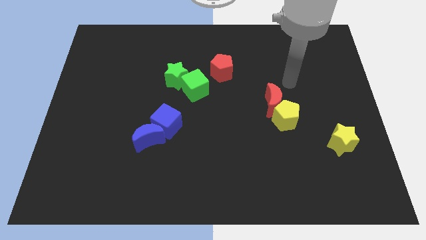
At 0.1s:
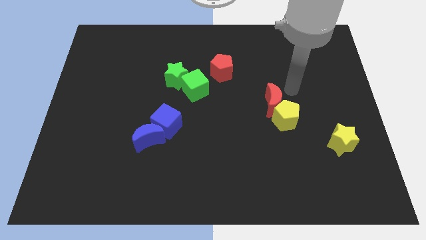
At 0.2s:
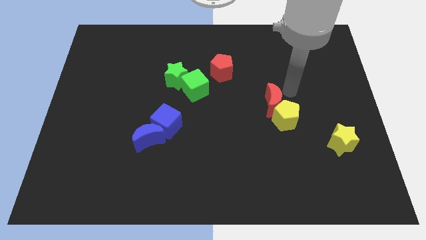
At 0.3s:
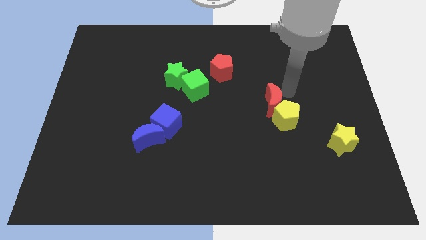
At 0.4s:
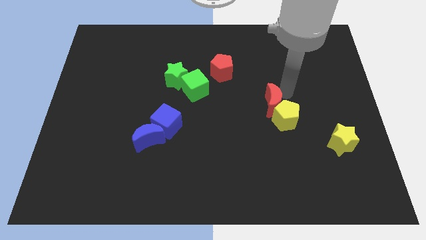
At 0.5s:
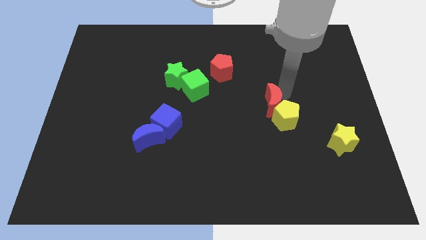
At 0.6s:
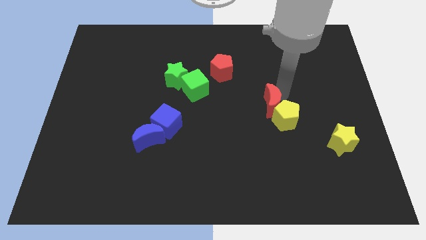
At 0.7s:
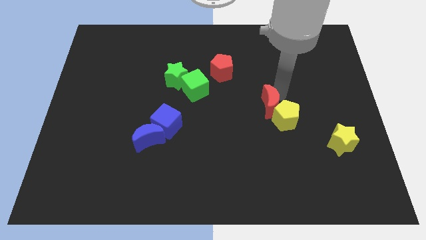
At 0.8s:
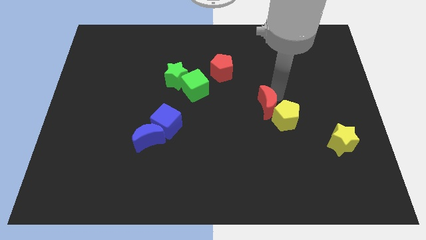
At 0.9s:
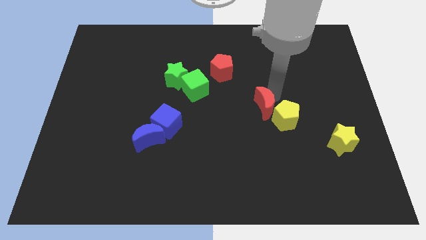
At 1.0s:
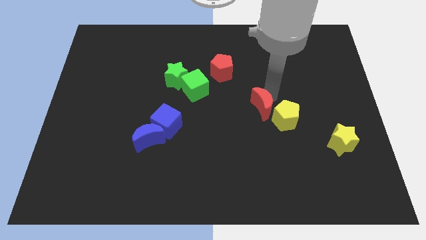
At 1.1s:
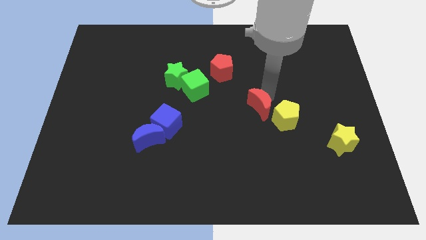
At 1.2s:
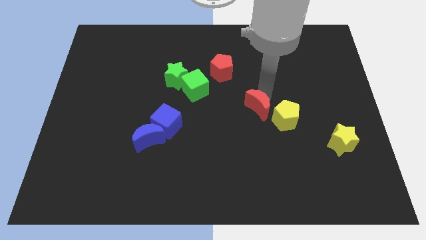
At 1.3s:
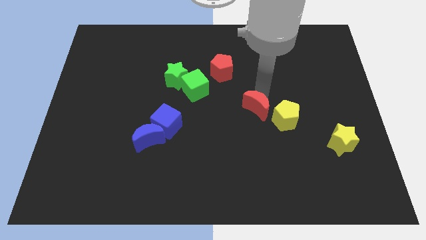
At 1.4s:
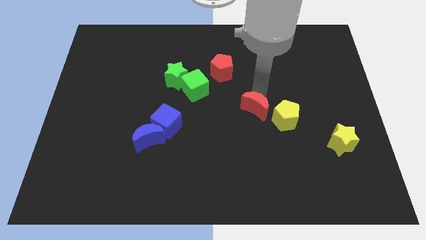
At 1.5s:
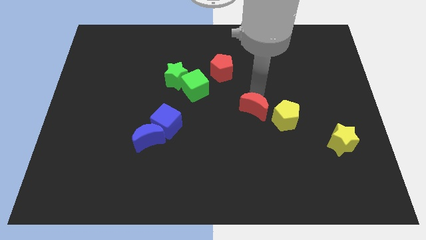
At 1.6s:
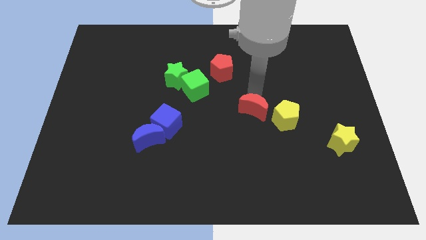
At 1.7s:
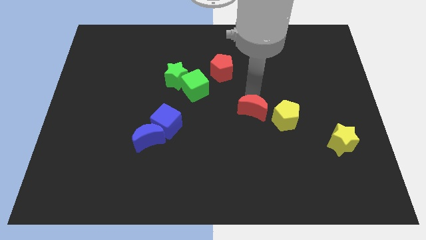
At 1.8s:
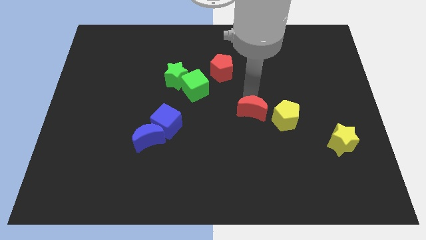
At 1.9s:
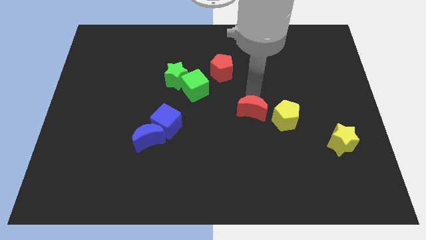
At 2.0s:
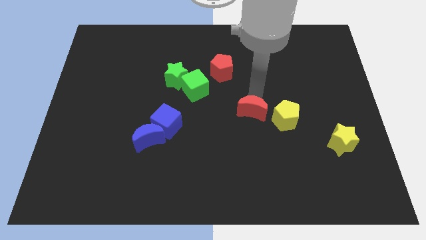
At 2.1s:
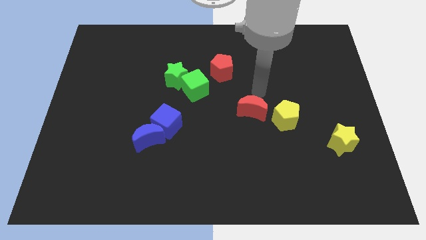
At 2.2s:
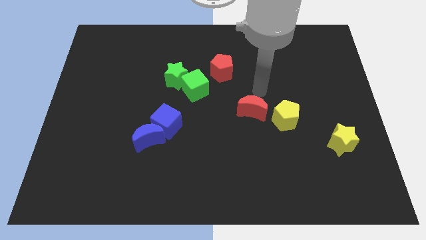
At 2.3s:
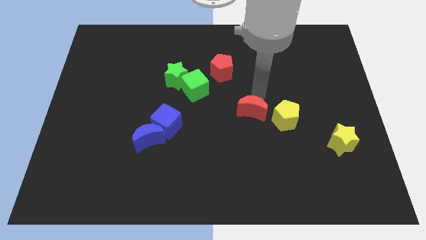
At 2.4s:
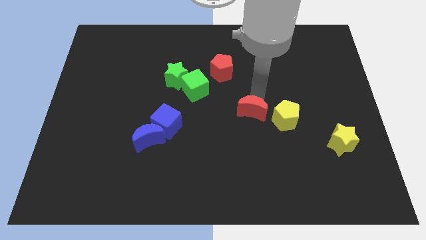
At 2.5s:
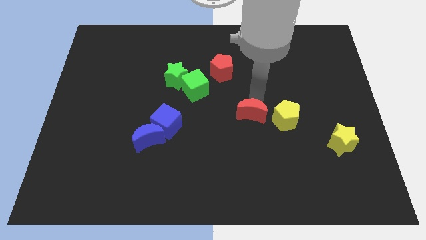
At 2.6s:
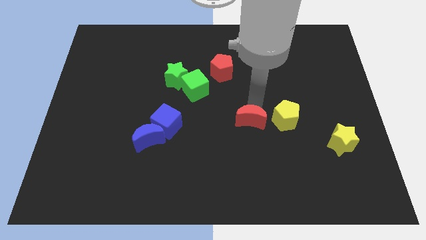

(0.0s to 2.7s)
slightly slide the red moon downwards and left

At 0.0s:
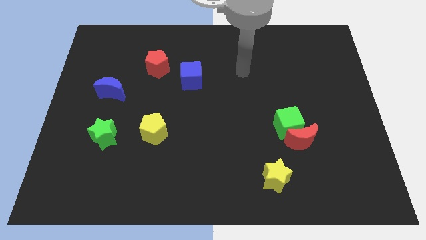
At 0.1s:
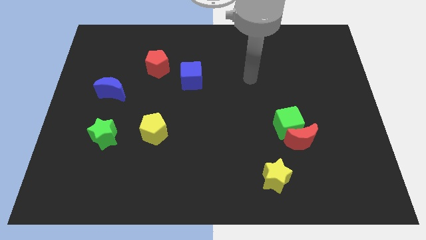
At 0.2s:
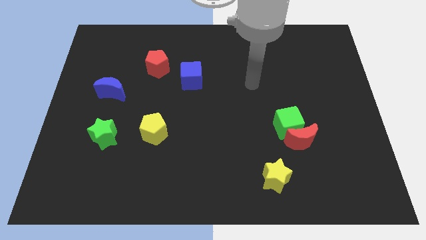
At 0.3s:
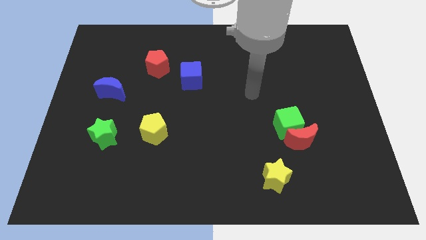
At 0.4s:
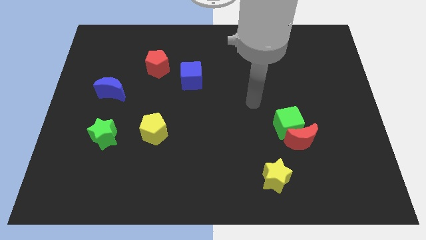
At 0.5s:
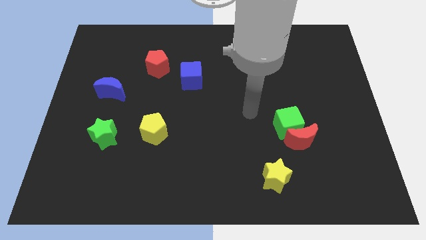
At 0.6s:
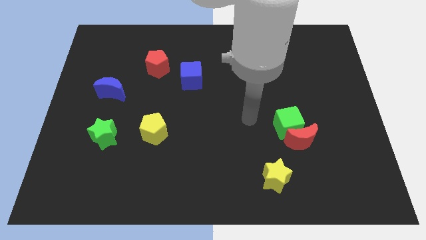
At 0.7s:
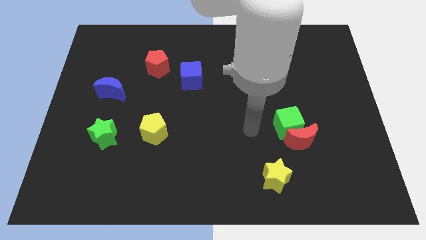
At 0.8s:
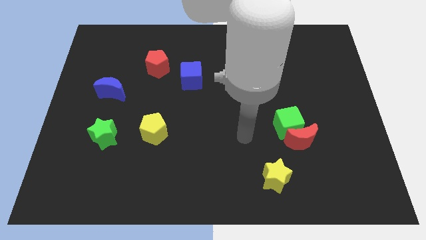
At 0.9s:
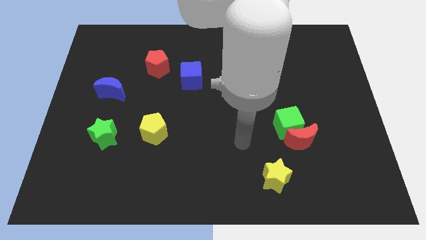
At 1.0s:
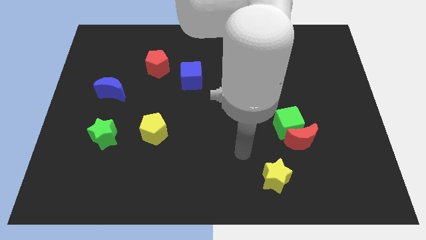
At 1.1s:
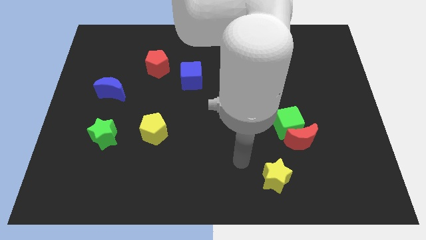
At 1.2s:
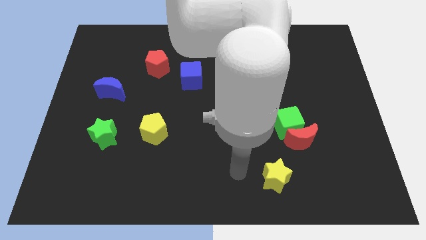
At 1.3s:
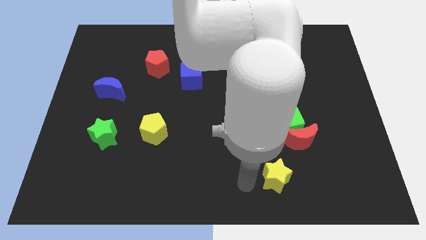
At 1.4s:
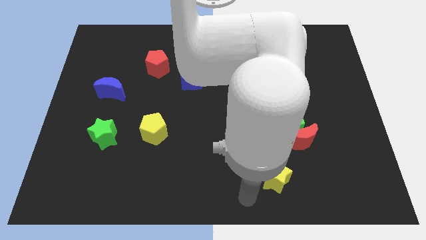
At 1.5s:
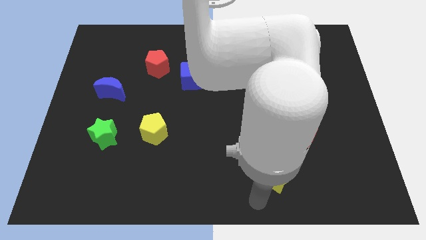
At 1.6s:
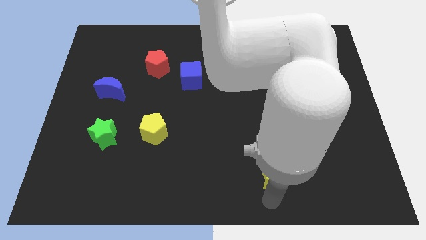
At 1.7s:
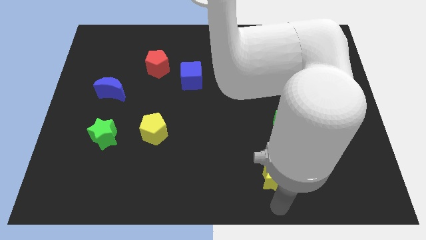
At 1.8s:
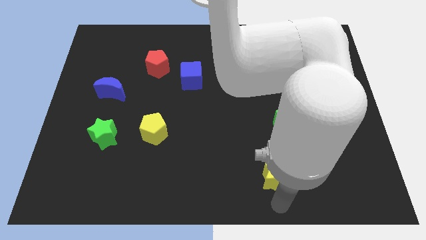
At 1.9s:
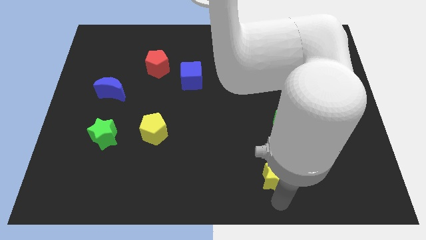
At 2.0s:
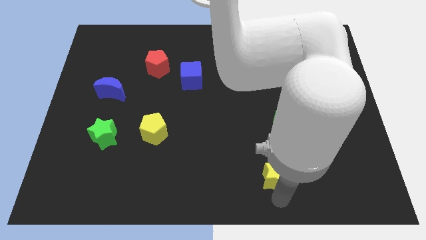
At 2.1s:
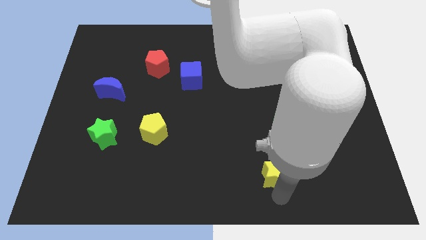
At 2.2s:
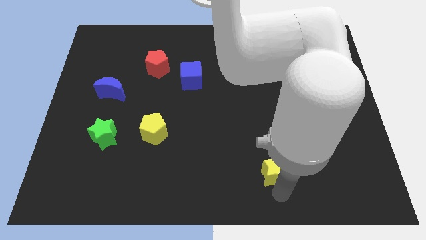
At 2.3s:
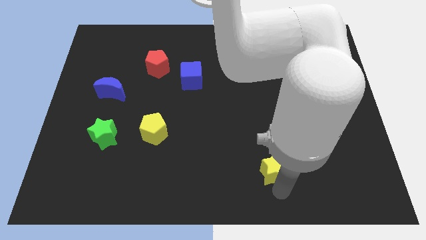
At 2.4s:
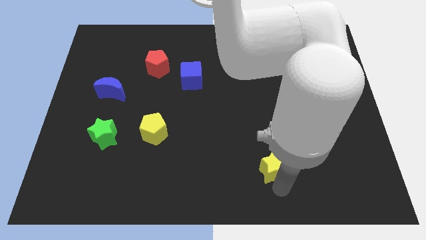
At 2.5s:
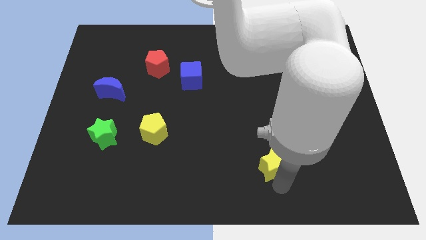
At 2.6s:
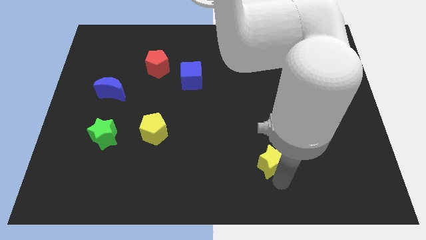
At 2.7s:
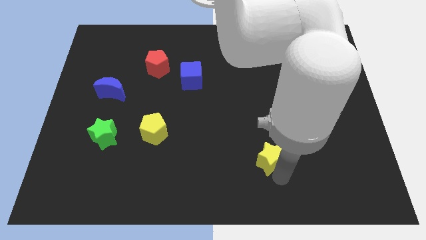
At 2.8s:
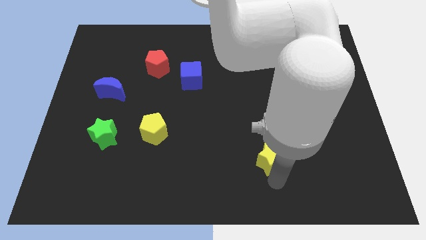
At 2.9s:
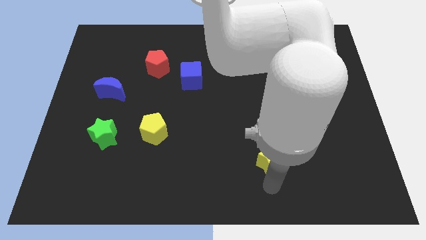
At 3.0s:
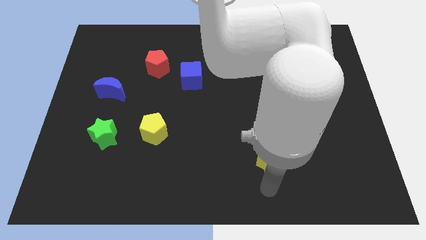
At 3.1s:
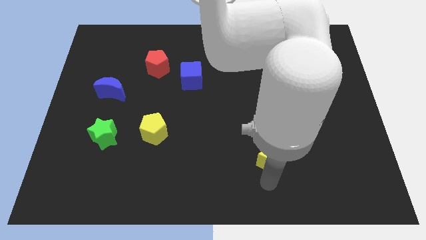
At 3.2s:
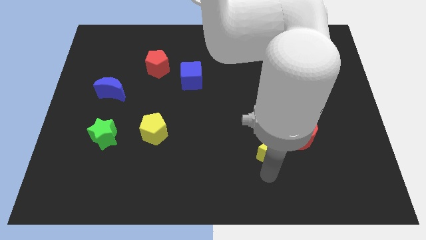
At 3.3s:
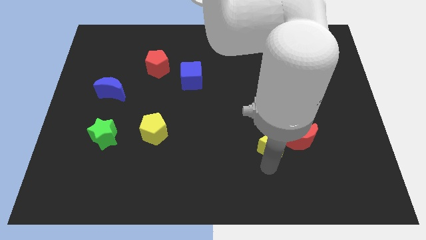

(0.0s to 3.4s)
slightly move the yellow star up

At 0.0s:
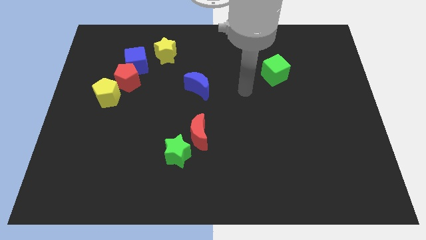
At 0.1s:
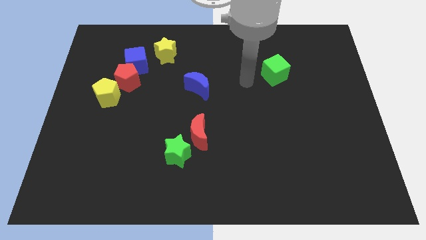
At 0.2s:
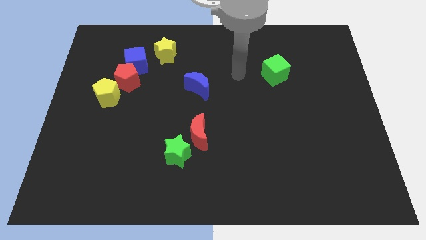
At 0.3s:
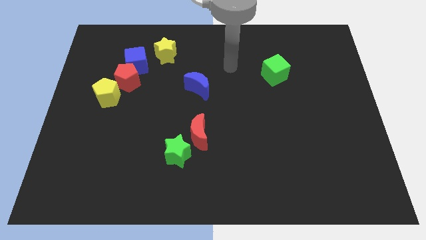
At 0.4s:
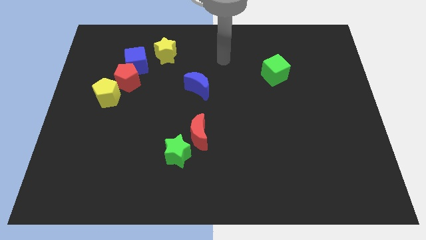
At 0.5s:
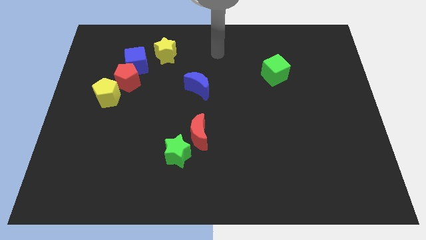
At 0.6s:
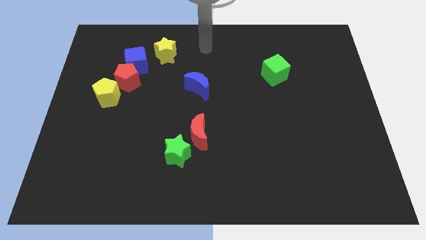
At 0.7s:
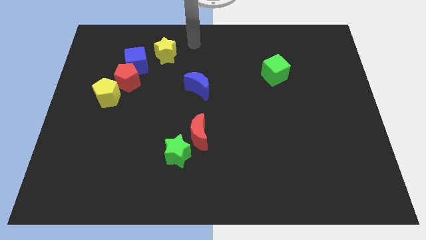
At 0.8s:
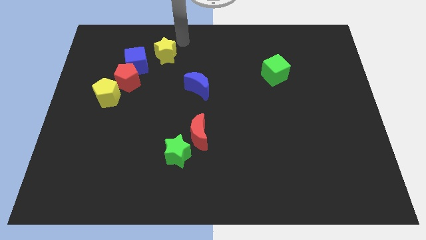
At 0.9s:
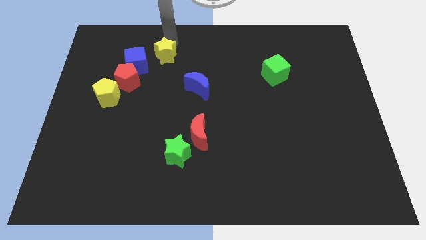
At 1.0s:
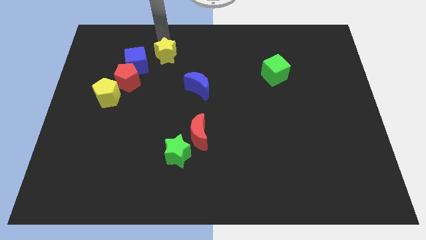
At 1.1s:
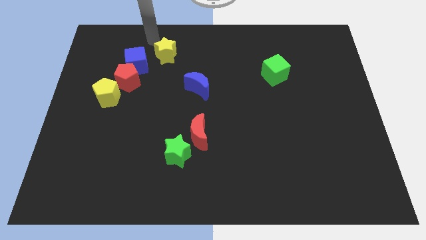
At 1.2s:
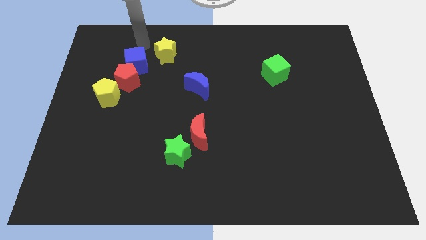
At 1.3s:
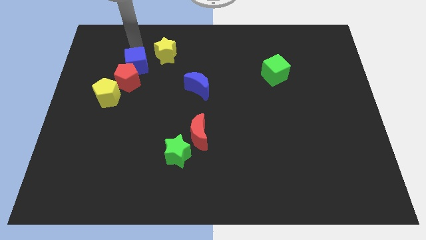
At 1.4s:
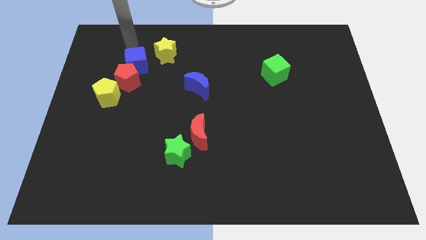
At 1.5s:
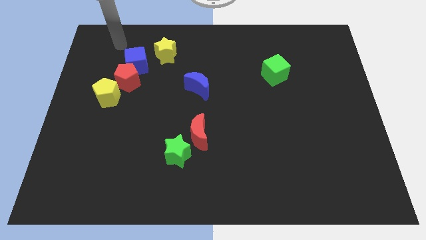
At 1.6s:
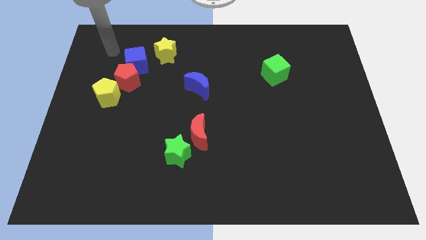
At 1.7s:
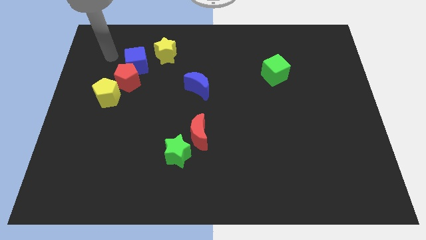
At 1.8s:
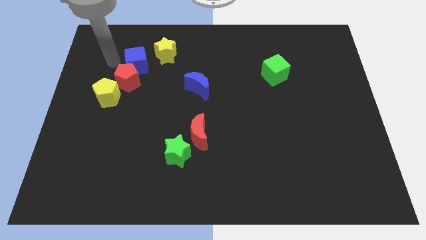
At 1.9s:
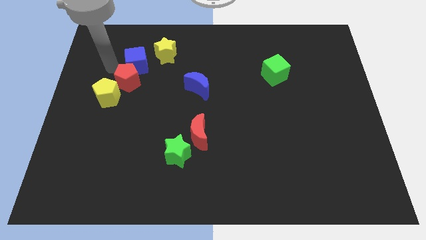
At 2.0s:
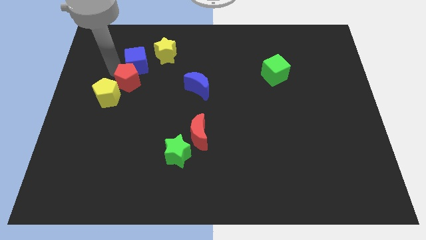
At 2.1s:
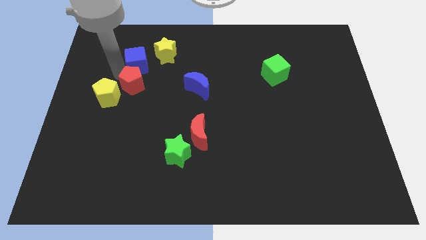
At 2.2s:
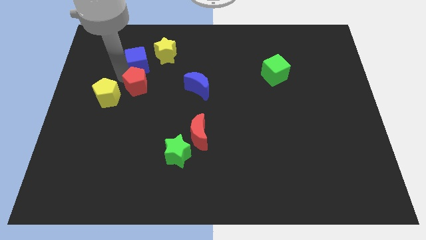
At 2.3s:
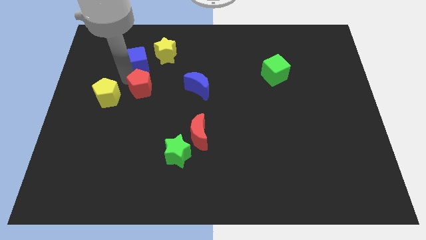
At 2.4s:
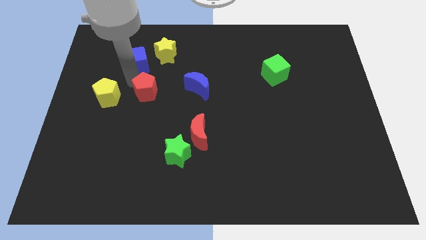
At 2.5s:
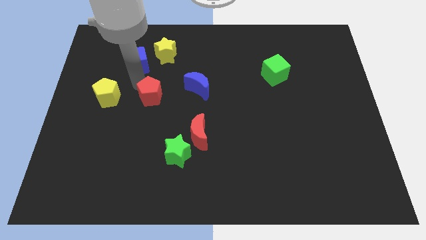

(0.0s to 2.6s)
move the red pentagon somewhat down and to the right diagonally
